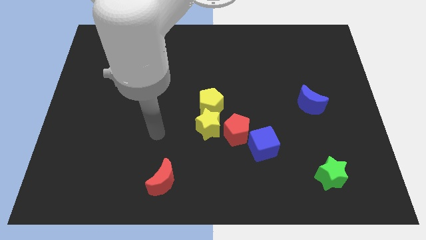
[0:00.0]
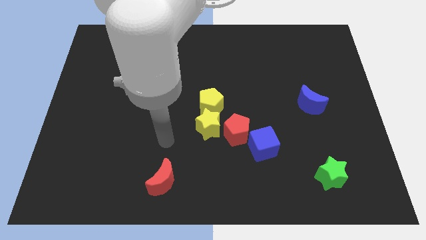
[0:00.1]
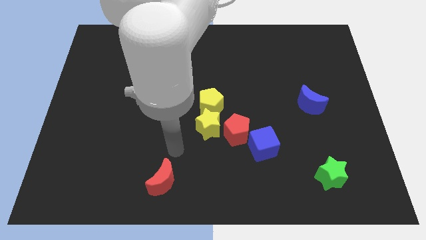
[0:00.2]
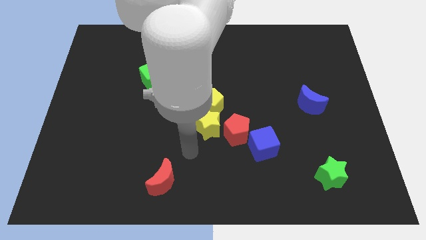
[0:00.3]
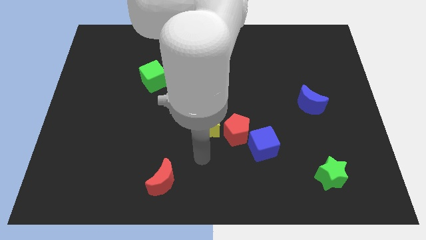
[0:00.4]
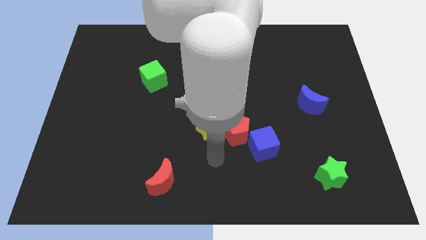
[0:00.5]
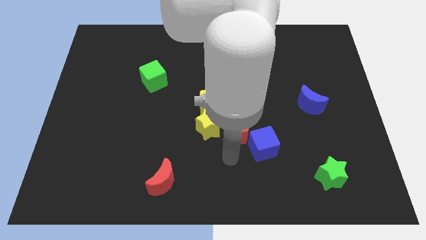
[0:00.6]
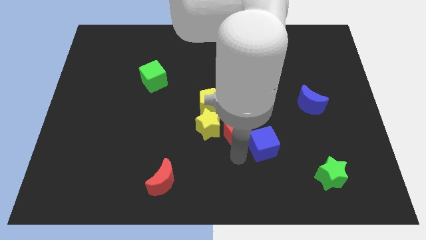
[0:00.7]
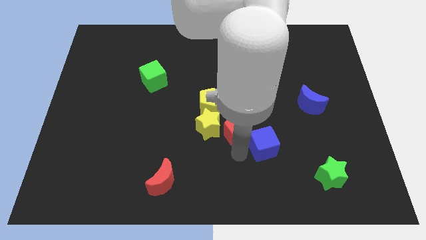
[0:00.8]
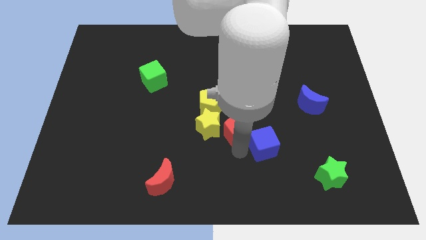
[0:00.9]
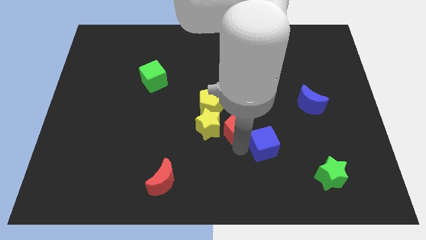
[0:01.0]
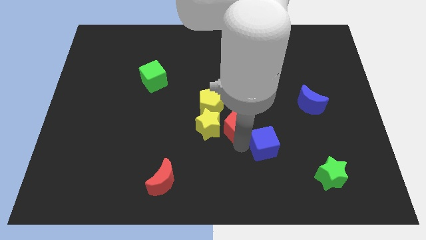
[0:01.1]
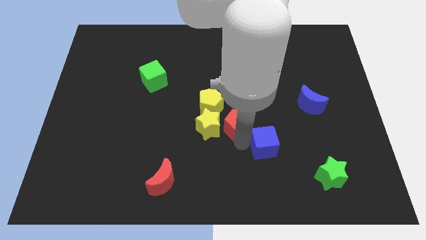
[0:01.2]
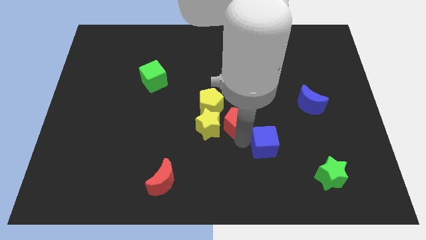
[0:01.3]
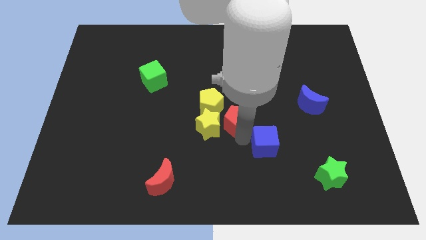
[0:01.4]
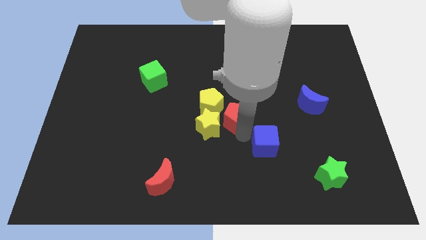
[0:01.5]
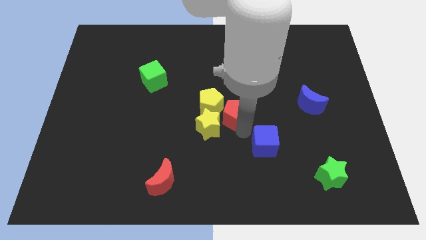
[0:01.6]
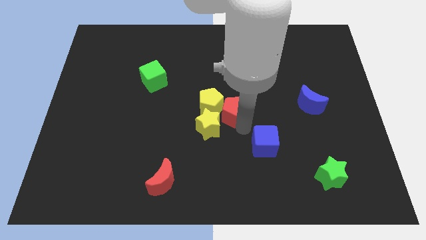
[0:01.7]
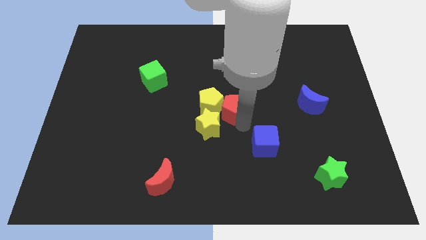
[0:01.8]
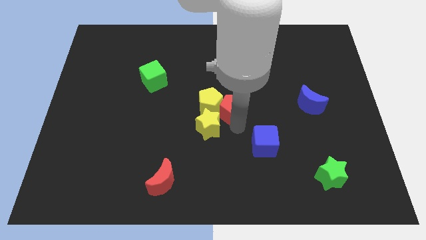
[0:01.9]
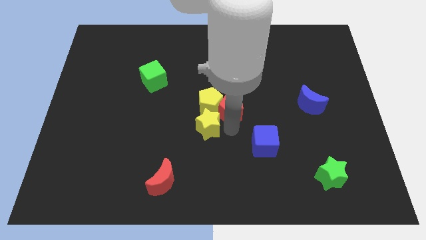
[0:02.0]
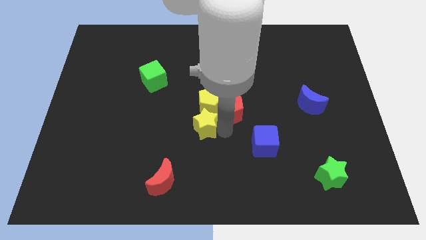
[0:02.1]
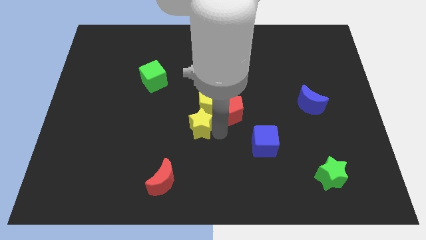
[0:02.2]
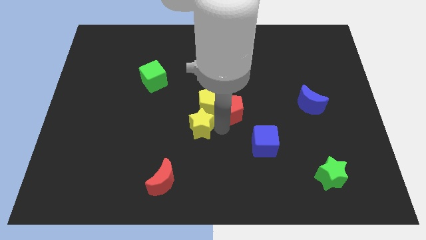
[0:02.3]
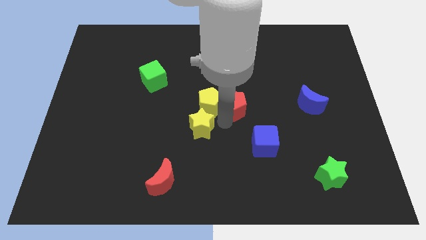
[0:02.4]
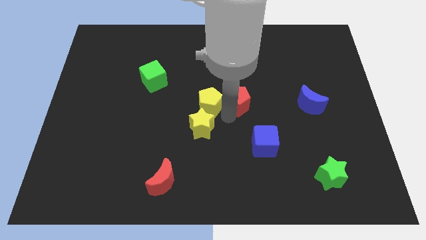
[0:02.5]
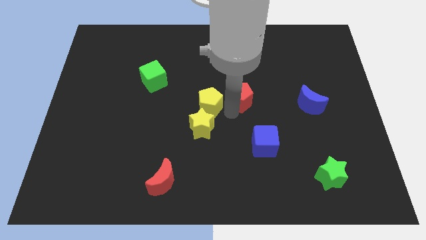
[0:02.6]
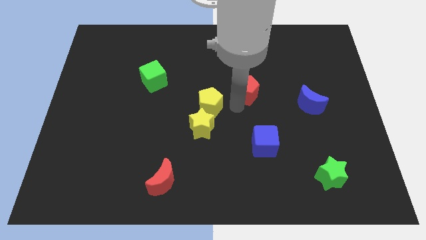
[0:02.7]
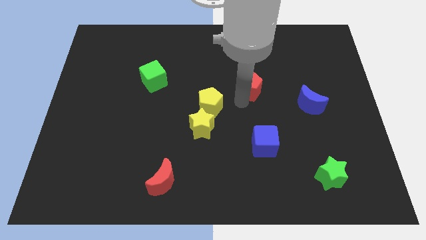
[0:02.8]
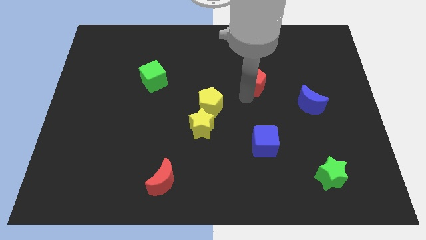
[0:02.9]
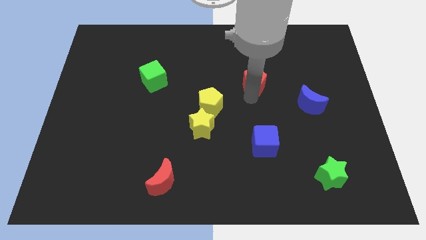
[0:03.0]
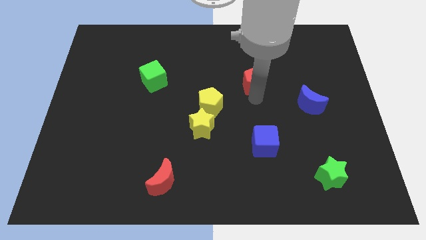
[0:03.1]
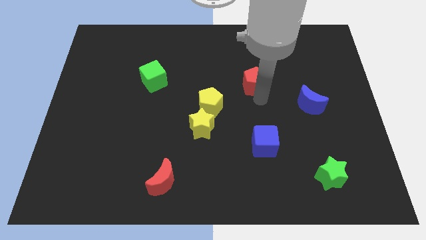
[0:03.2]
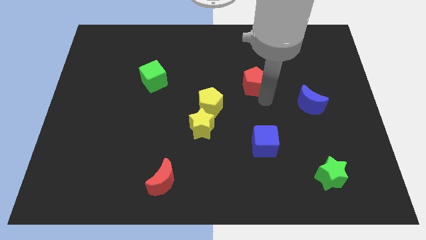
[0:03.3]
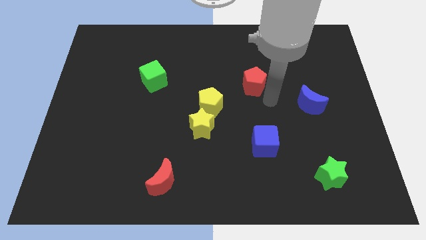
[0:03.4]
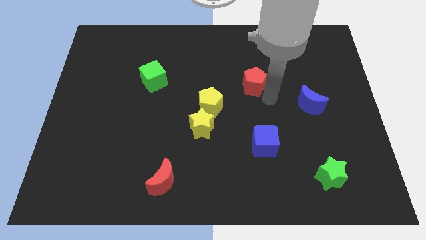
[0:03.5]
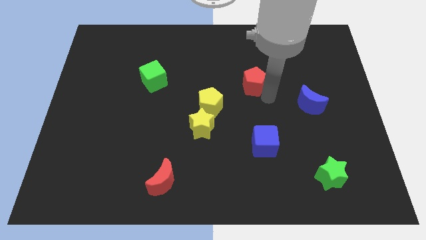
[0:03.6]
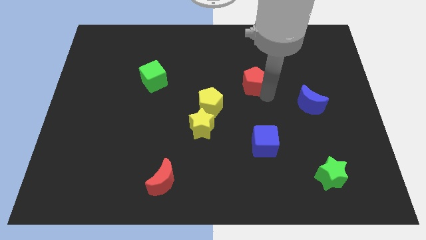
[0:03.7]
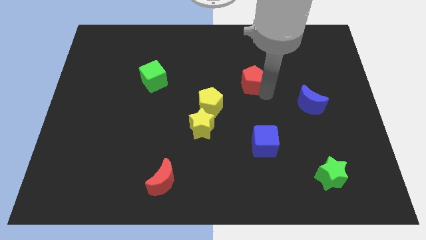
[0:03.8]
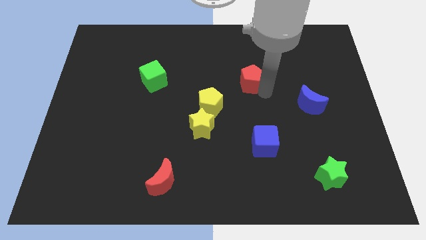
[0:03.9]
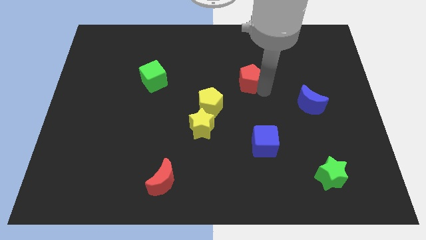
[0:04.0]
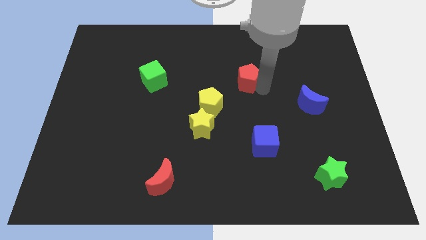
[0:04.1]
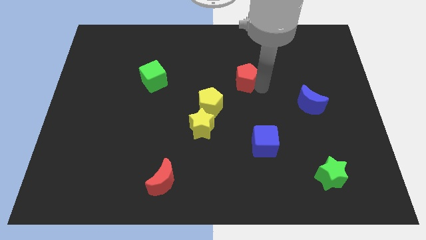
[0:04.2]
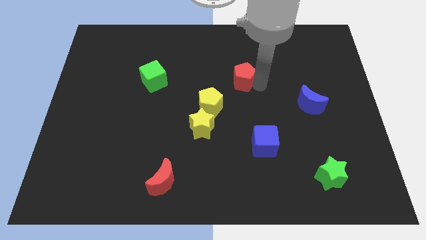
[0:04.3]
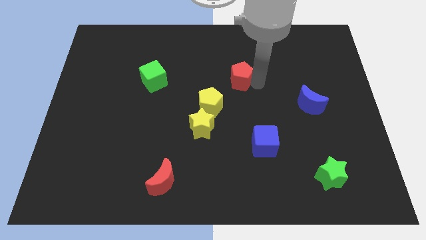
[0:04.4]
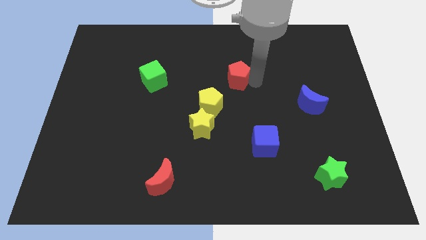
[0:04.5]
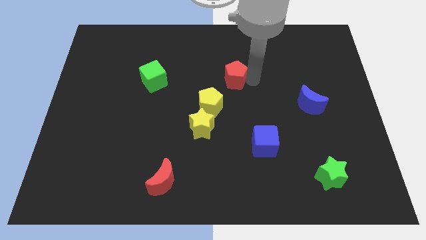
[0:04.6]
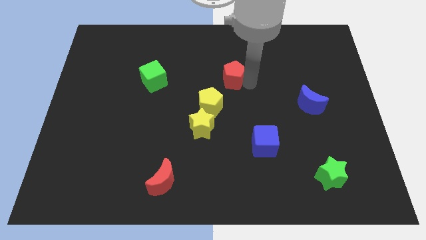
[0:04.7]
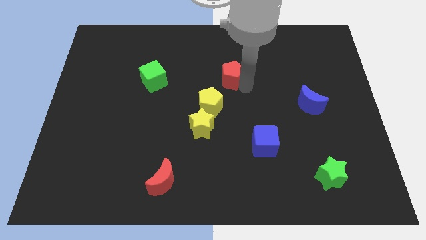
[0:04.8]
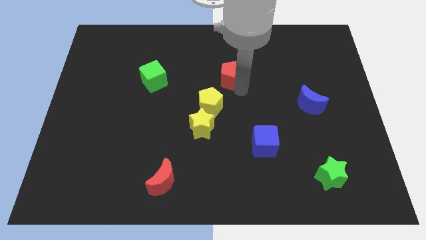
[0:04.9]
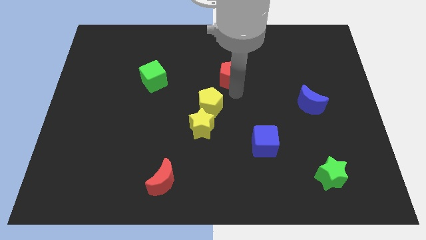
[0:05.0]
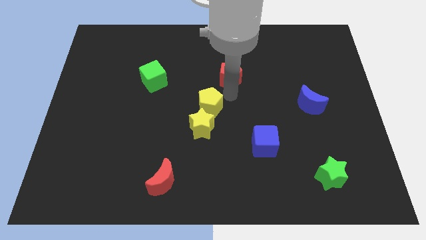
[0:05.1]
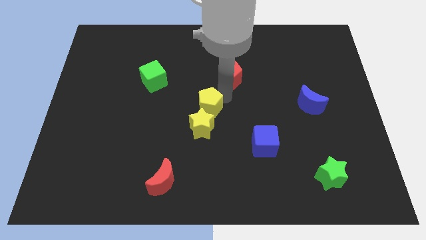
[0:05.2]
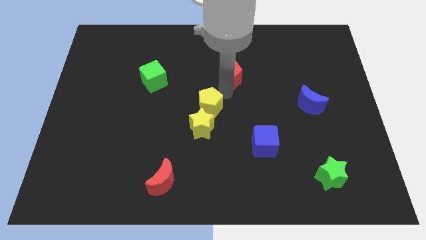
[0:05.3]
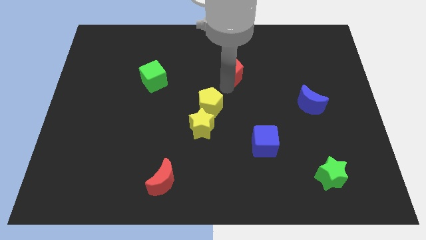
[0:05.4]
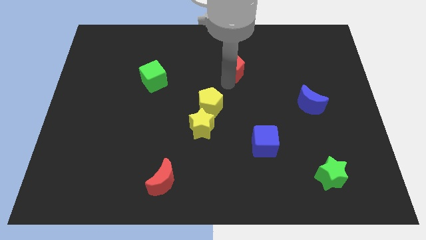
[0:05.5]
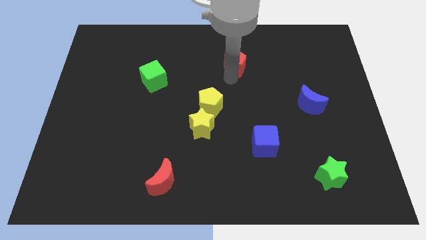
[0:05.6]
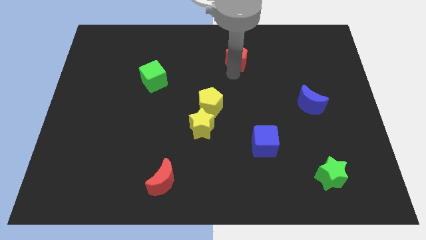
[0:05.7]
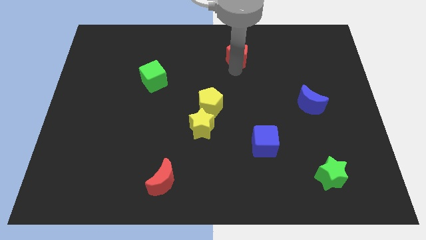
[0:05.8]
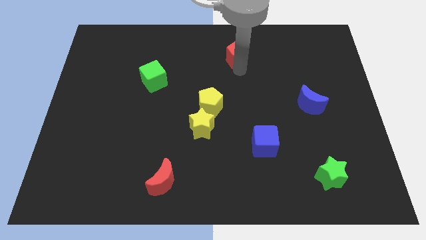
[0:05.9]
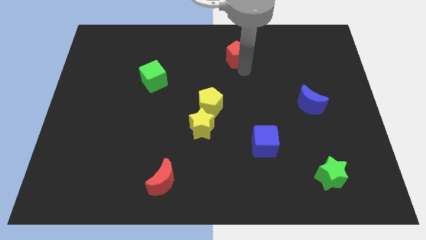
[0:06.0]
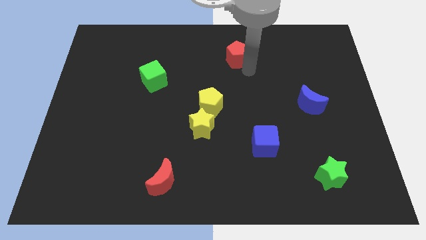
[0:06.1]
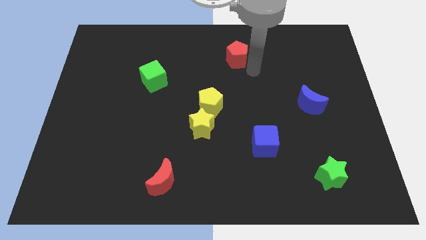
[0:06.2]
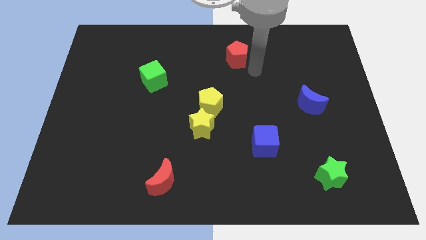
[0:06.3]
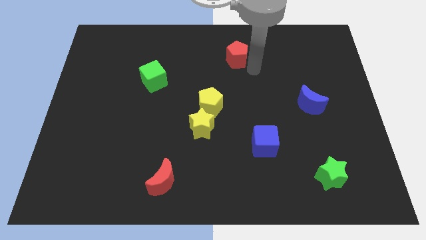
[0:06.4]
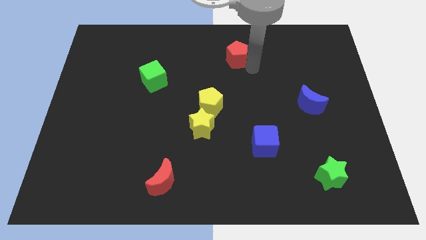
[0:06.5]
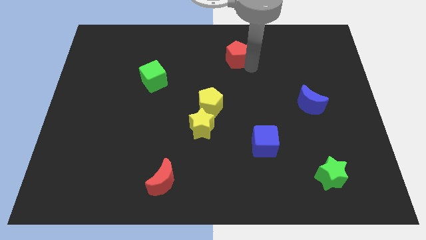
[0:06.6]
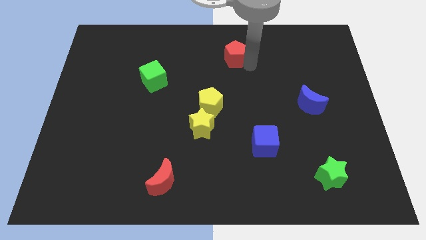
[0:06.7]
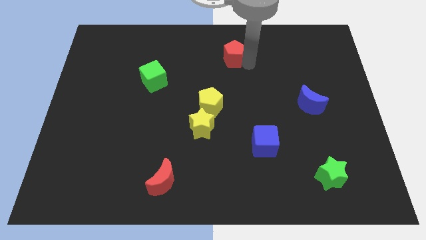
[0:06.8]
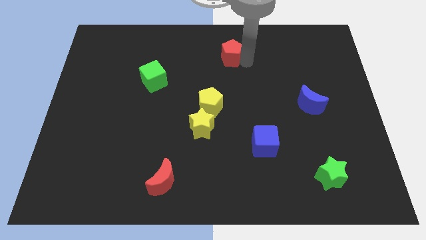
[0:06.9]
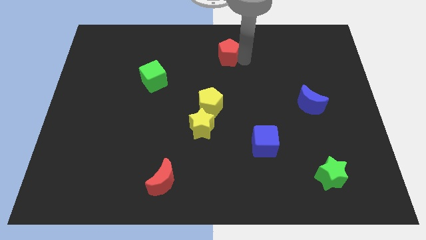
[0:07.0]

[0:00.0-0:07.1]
slide the red pentagon to the towards your base

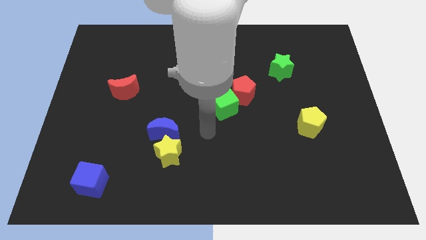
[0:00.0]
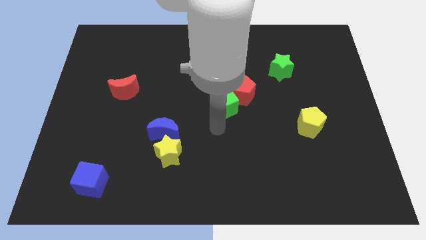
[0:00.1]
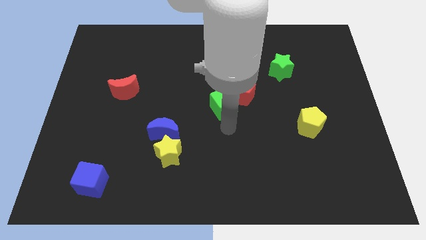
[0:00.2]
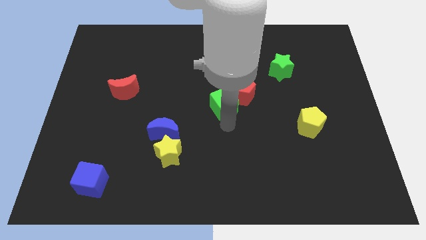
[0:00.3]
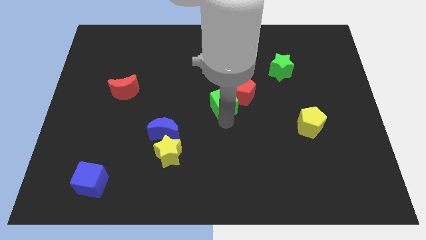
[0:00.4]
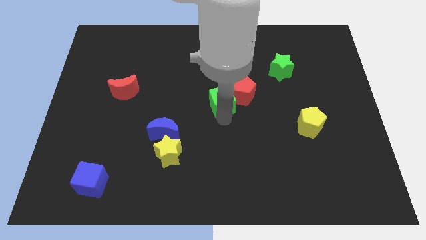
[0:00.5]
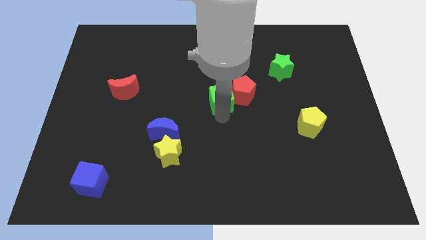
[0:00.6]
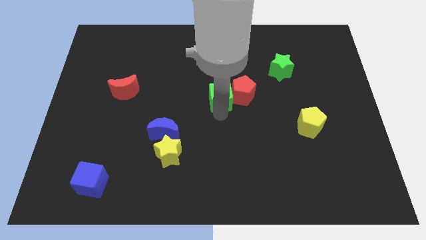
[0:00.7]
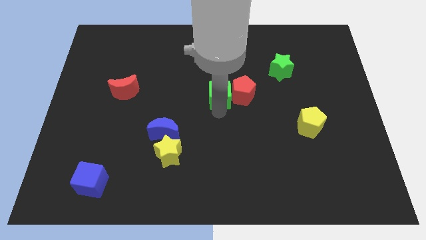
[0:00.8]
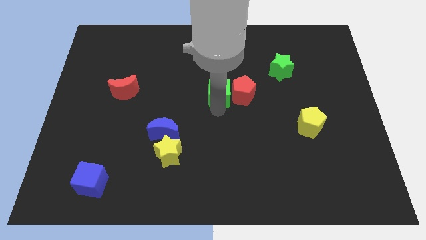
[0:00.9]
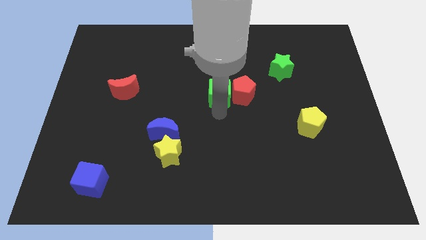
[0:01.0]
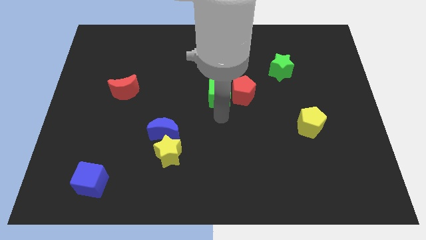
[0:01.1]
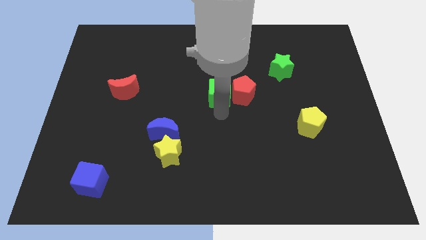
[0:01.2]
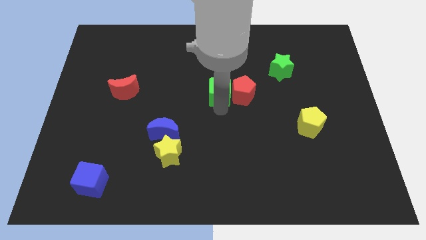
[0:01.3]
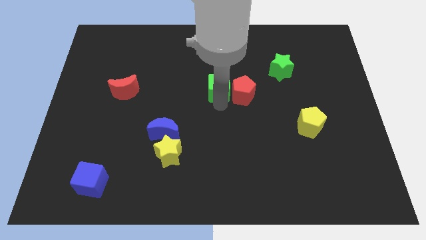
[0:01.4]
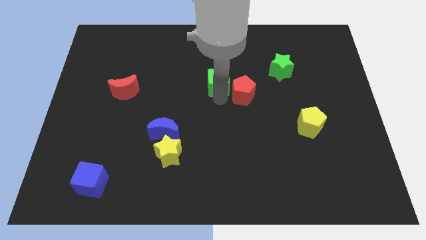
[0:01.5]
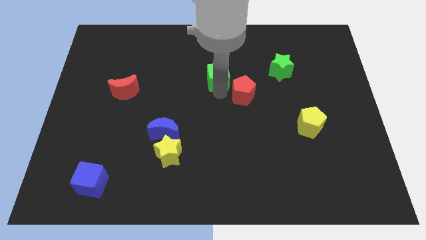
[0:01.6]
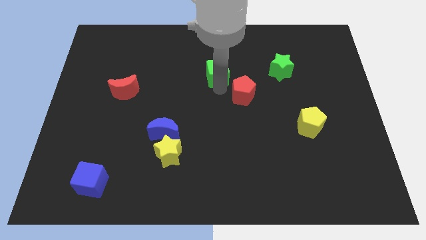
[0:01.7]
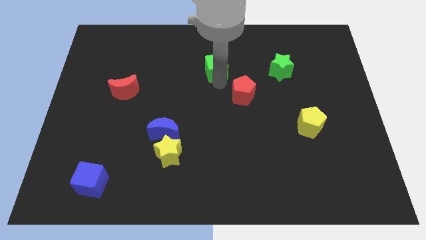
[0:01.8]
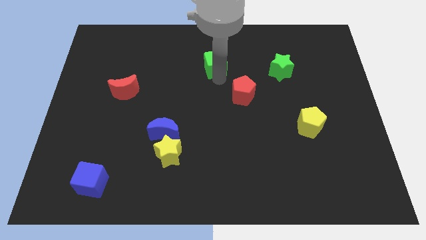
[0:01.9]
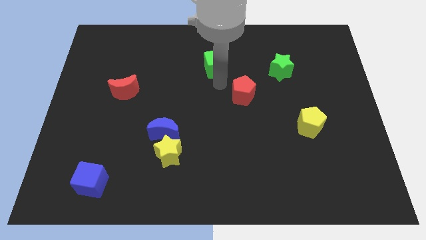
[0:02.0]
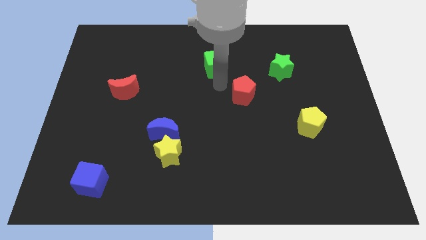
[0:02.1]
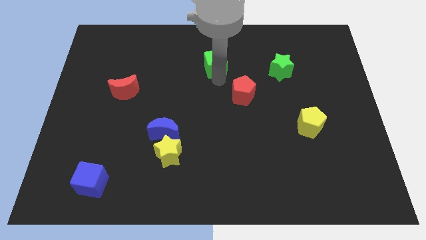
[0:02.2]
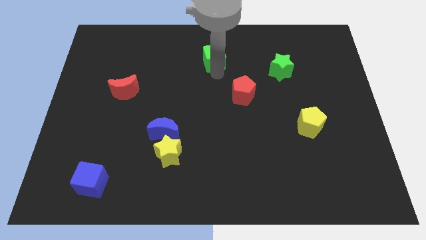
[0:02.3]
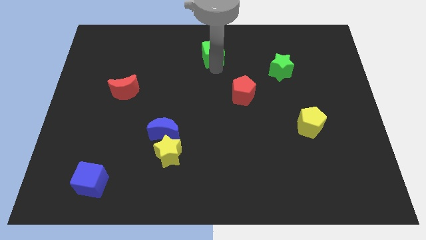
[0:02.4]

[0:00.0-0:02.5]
slide the green cube to the top
